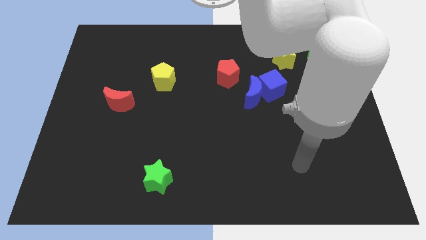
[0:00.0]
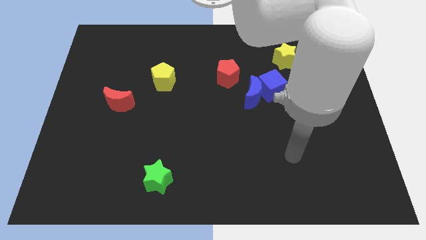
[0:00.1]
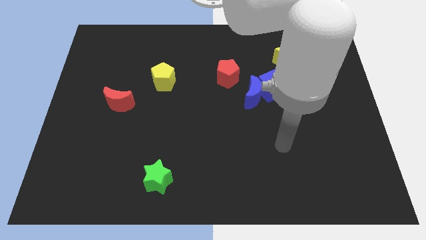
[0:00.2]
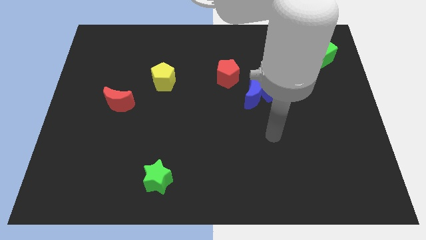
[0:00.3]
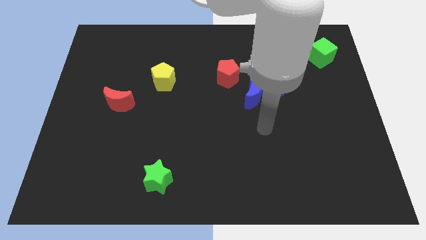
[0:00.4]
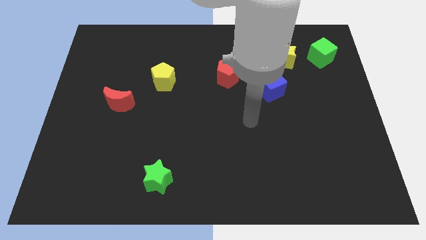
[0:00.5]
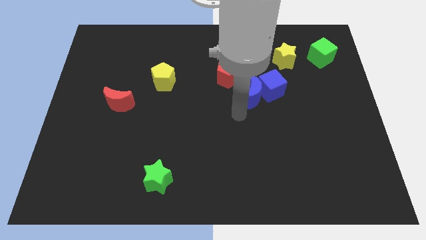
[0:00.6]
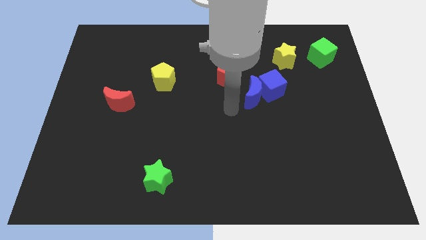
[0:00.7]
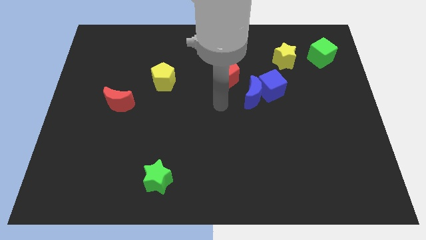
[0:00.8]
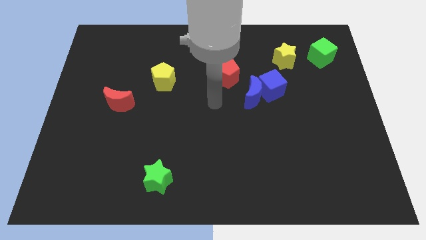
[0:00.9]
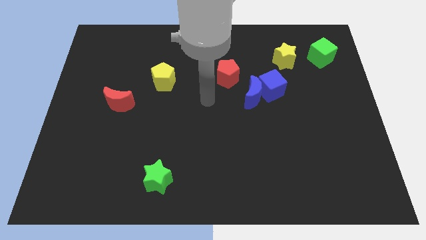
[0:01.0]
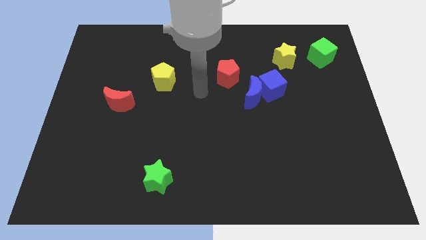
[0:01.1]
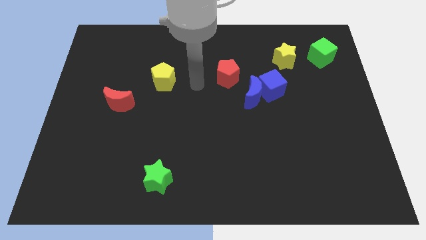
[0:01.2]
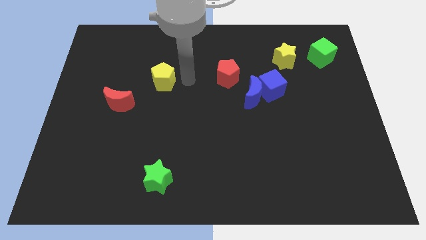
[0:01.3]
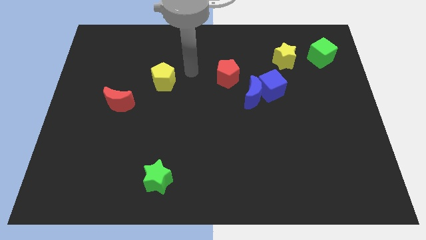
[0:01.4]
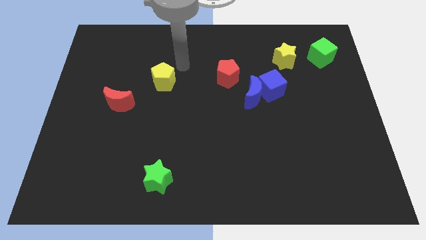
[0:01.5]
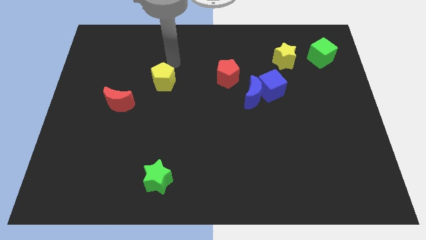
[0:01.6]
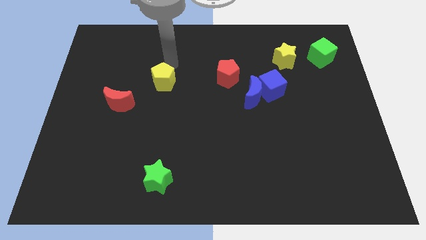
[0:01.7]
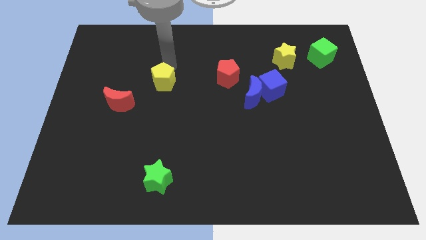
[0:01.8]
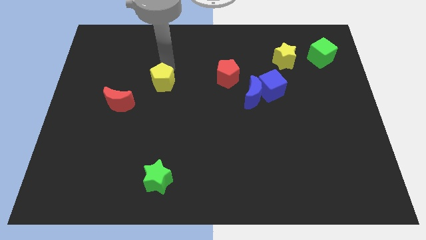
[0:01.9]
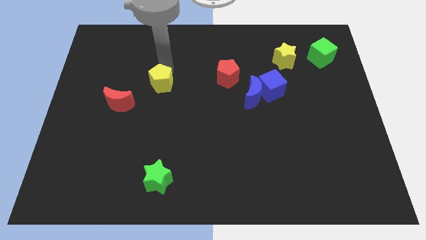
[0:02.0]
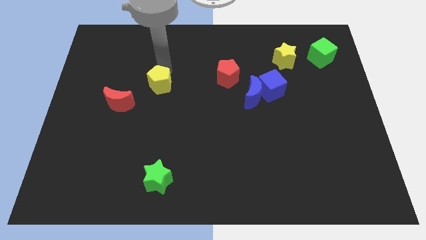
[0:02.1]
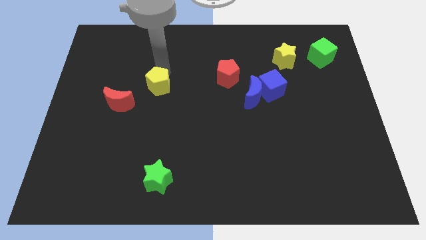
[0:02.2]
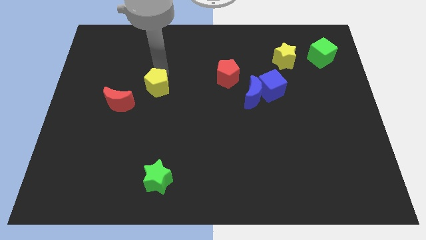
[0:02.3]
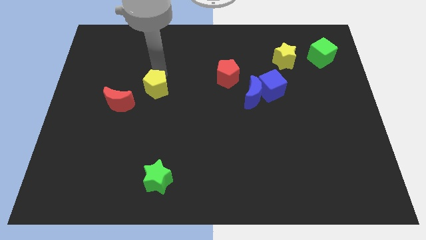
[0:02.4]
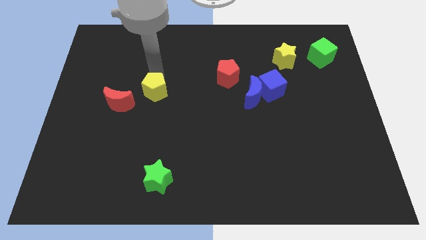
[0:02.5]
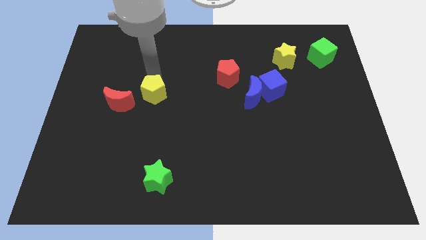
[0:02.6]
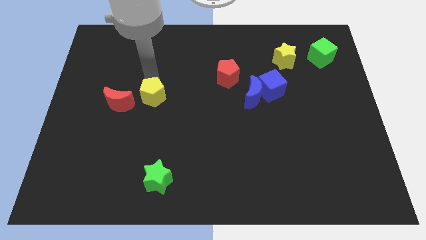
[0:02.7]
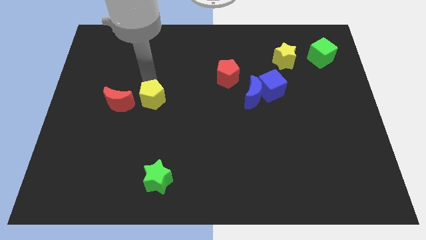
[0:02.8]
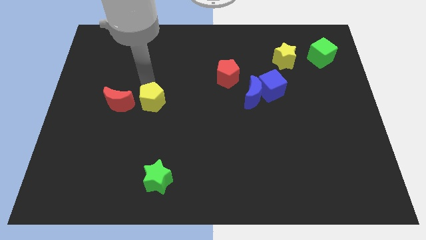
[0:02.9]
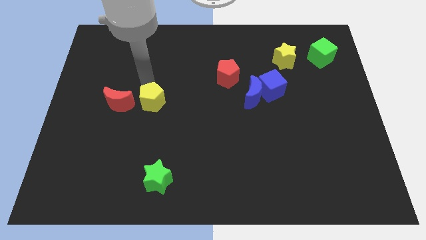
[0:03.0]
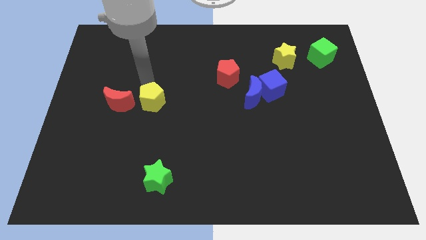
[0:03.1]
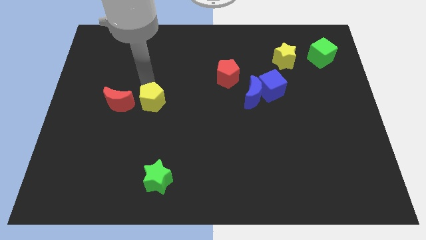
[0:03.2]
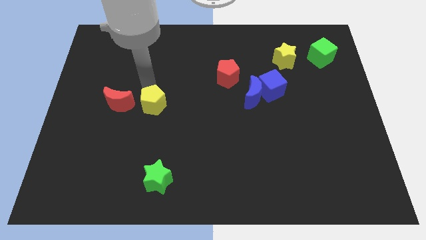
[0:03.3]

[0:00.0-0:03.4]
move the yellow pentagon a little down

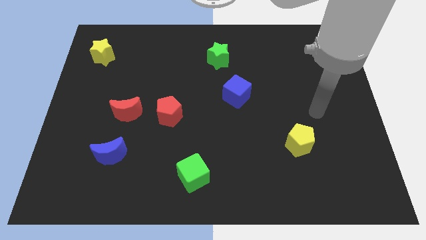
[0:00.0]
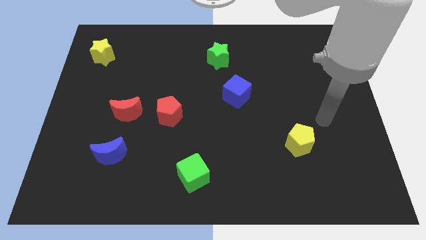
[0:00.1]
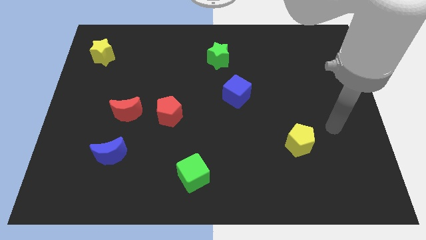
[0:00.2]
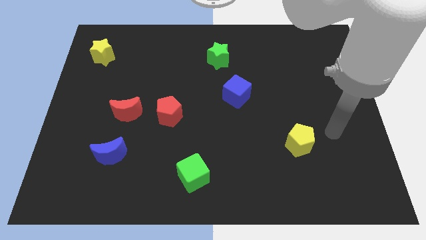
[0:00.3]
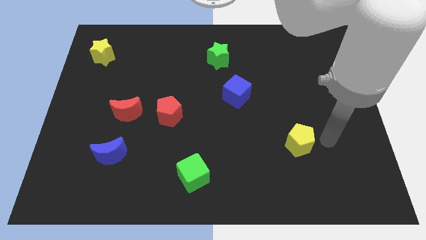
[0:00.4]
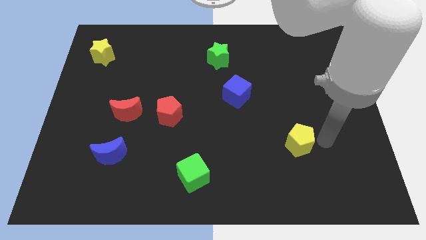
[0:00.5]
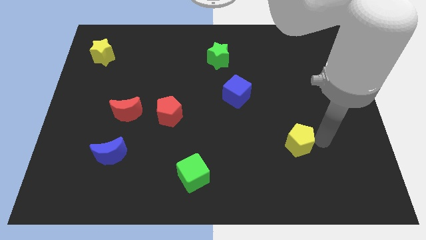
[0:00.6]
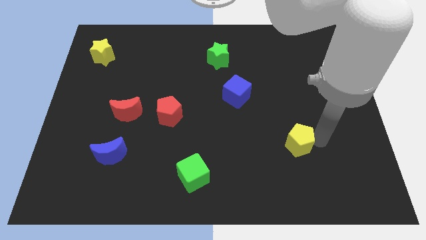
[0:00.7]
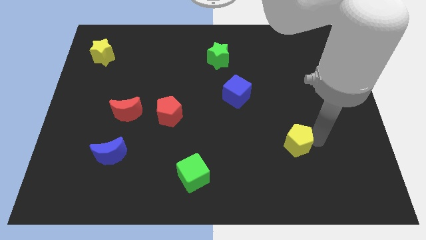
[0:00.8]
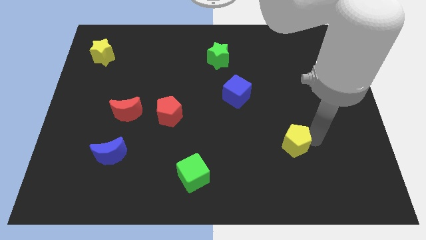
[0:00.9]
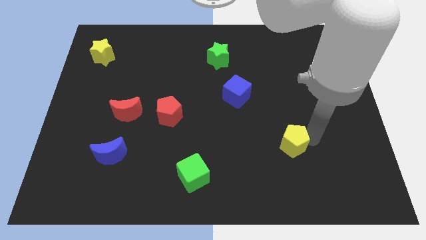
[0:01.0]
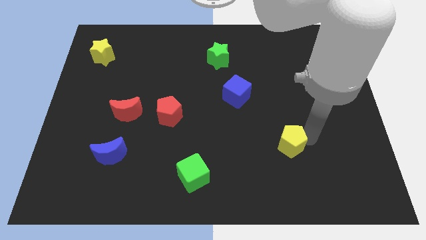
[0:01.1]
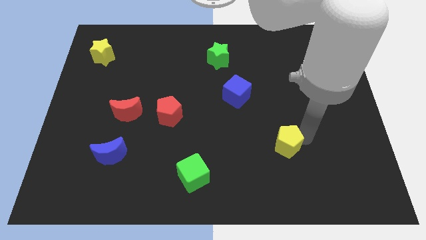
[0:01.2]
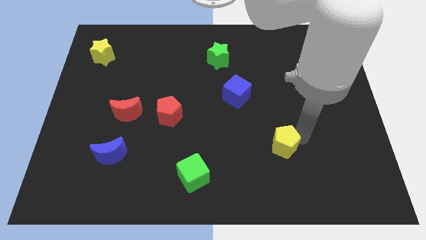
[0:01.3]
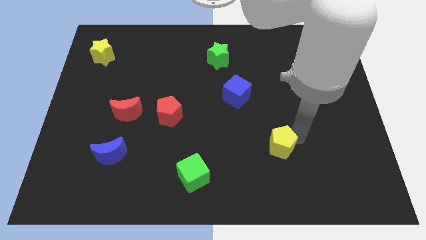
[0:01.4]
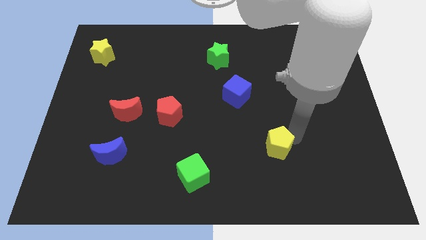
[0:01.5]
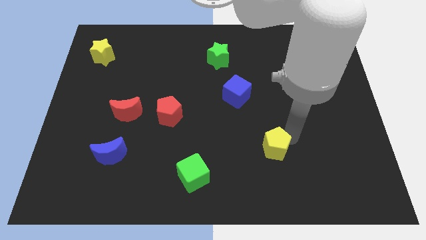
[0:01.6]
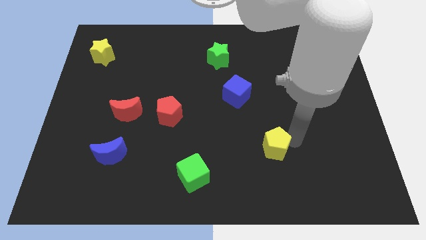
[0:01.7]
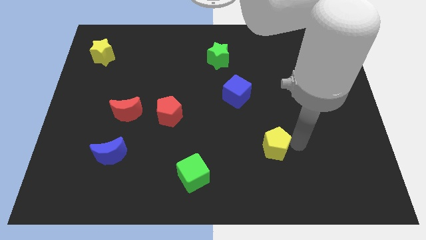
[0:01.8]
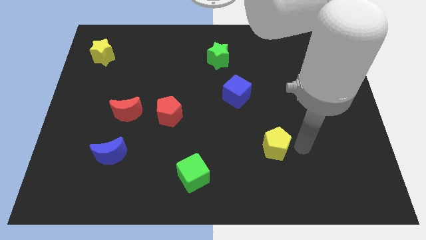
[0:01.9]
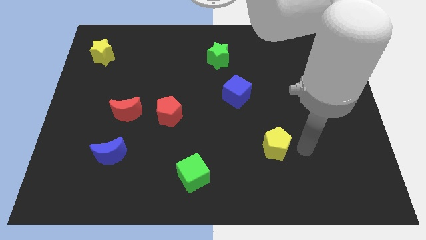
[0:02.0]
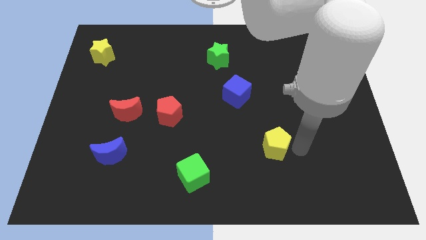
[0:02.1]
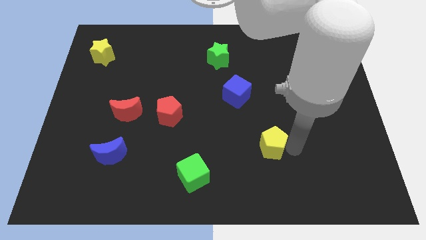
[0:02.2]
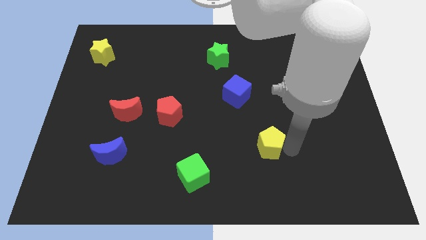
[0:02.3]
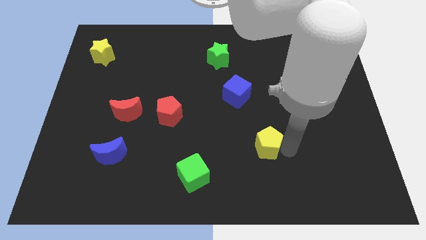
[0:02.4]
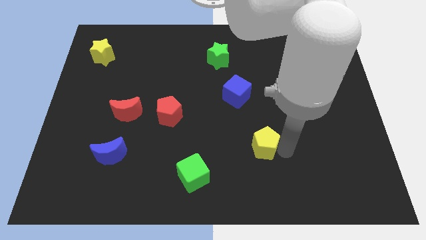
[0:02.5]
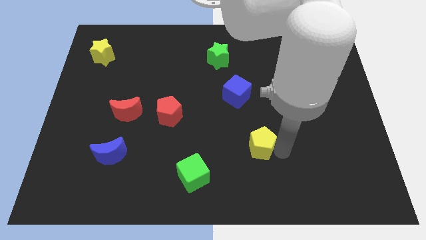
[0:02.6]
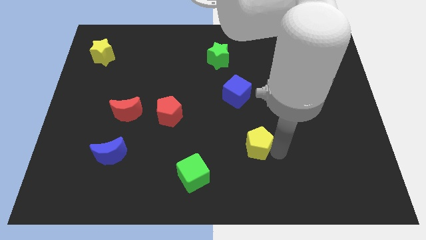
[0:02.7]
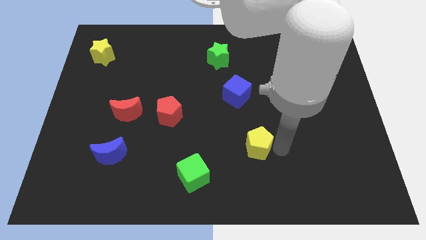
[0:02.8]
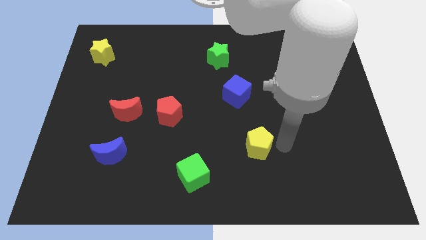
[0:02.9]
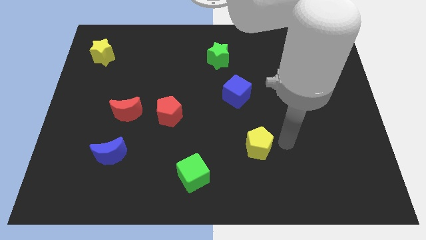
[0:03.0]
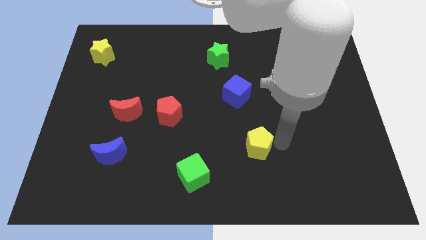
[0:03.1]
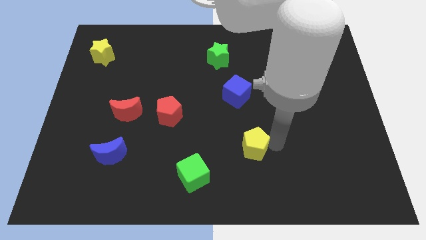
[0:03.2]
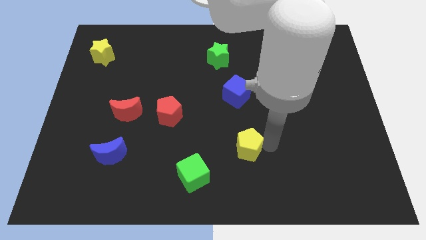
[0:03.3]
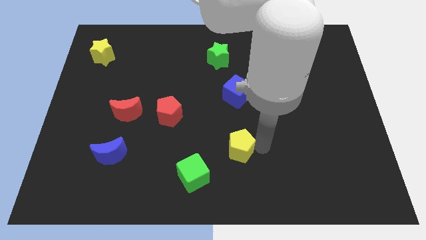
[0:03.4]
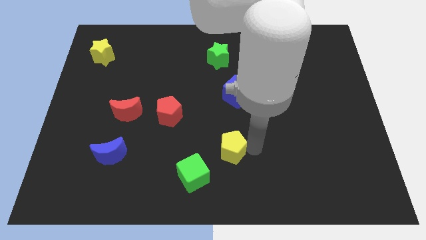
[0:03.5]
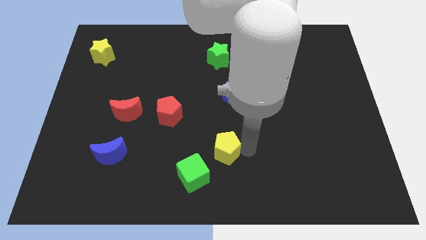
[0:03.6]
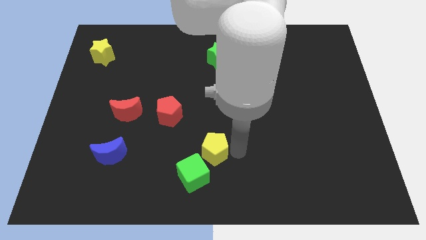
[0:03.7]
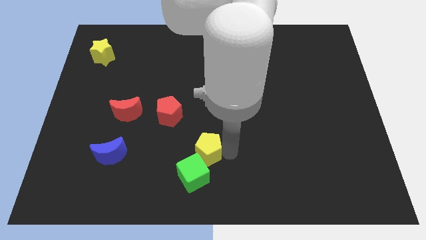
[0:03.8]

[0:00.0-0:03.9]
slide the yellow pentagon to the left

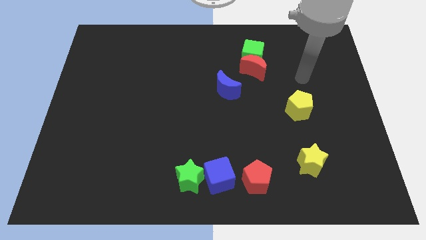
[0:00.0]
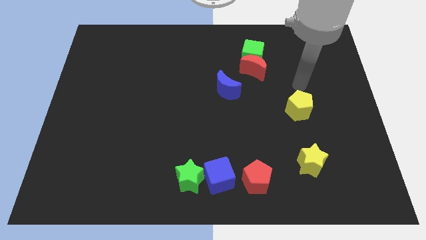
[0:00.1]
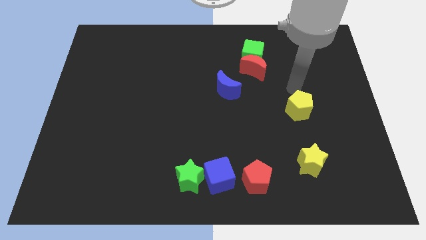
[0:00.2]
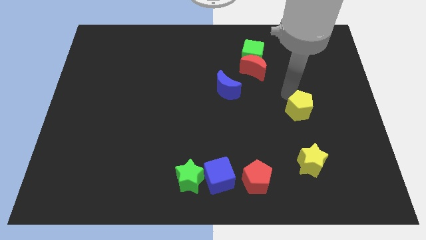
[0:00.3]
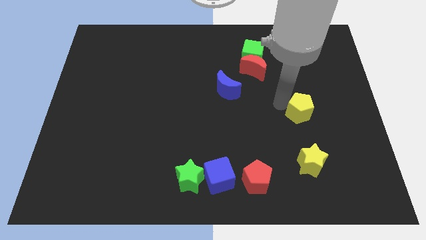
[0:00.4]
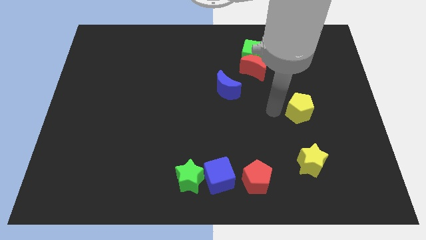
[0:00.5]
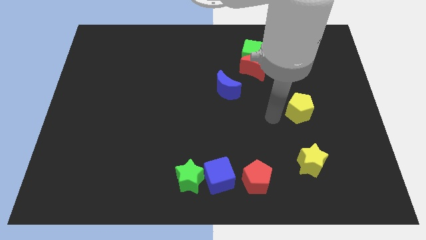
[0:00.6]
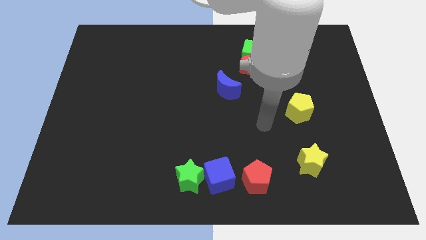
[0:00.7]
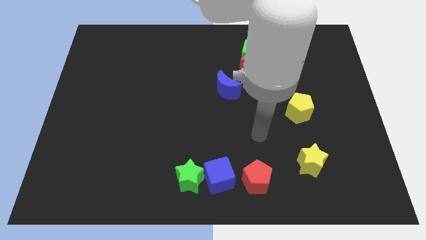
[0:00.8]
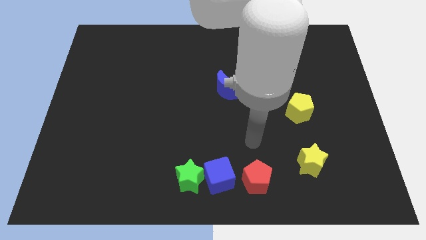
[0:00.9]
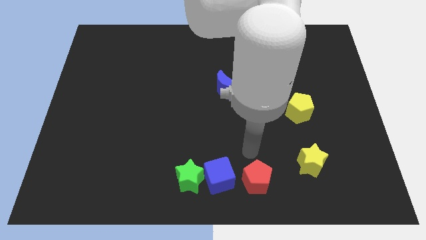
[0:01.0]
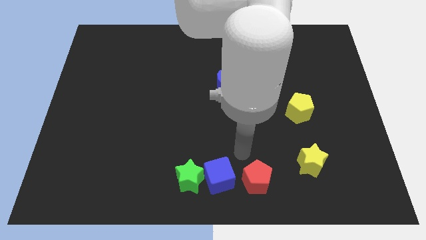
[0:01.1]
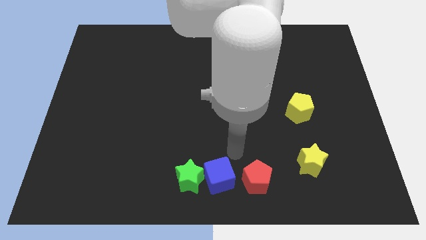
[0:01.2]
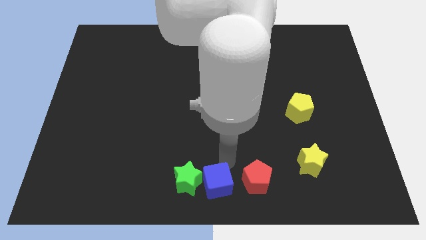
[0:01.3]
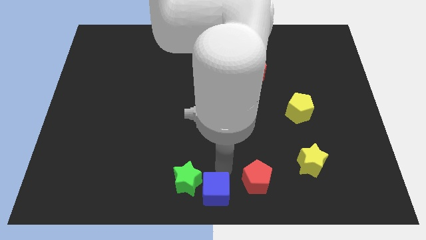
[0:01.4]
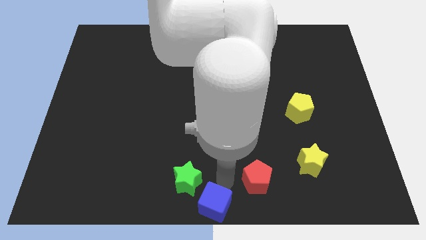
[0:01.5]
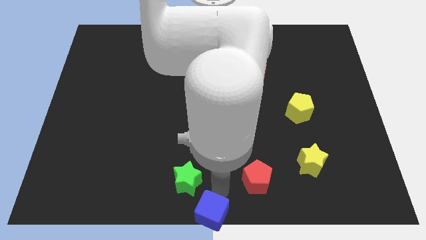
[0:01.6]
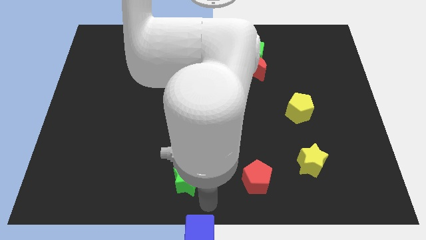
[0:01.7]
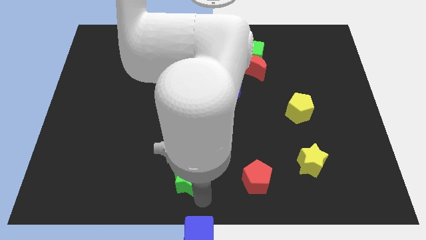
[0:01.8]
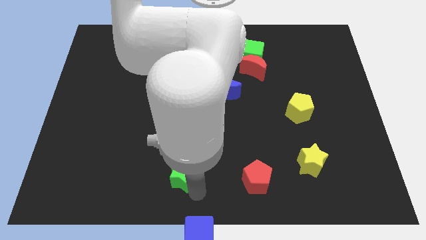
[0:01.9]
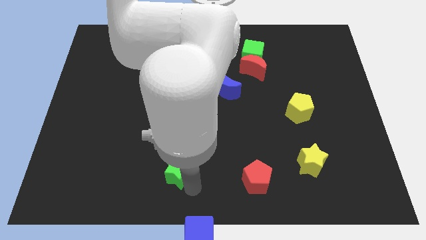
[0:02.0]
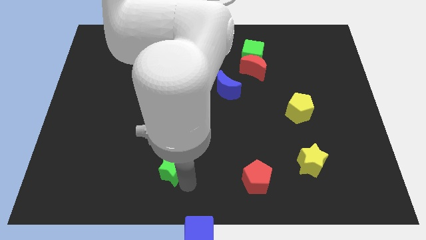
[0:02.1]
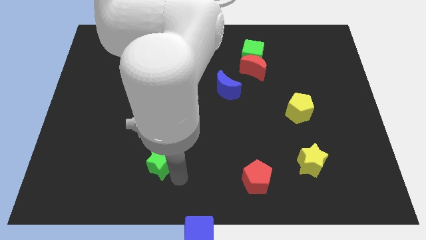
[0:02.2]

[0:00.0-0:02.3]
slightly move the green star diagonally up and to the left
